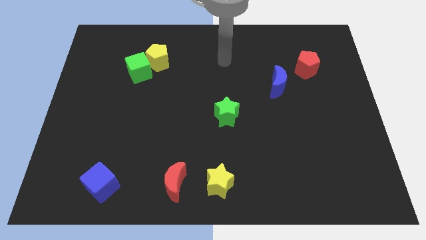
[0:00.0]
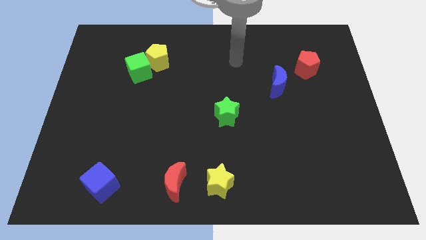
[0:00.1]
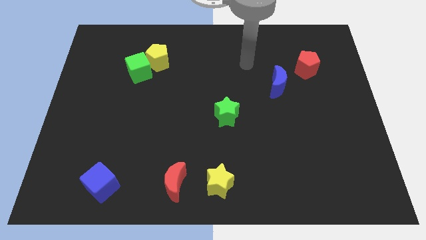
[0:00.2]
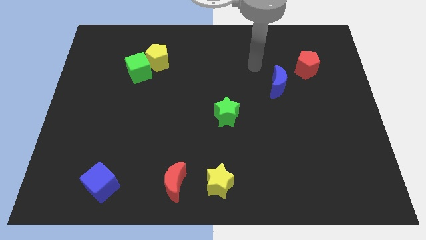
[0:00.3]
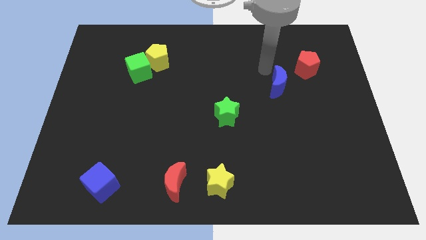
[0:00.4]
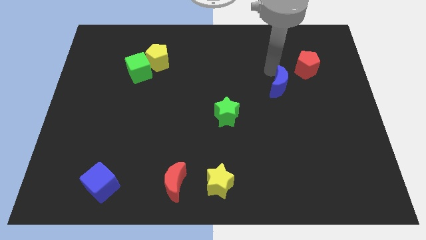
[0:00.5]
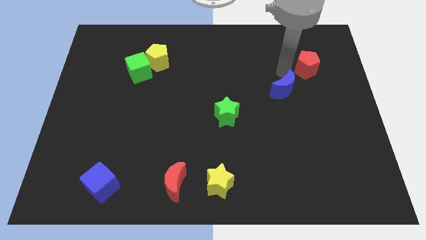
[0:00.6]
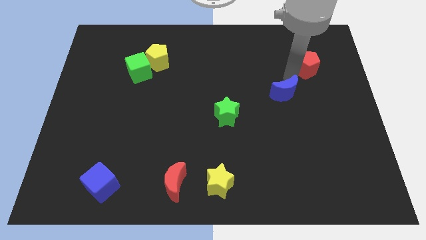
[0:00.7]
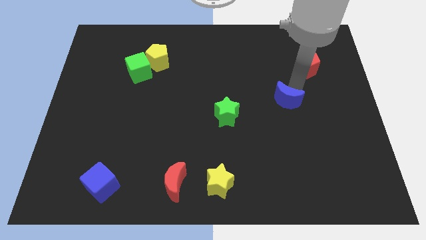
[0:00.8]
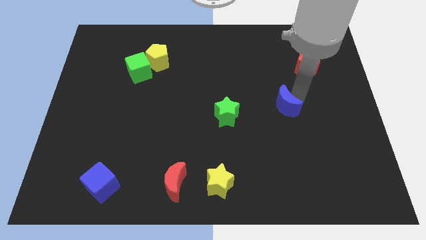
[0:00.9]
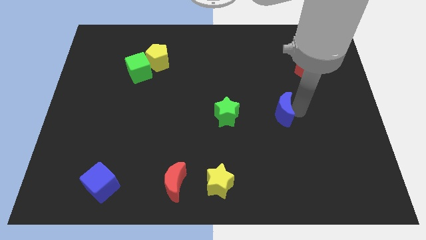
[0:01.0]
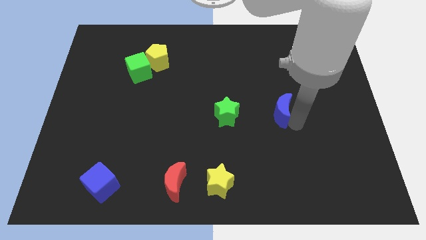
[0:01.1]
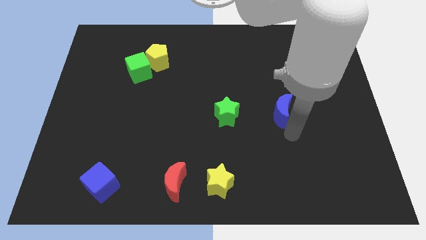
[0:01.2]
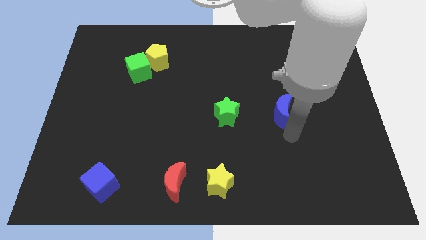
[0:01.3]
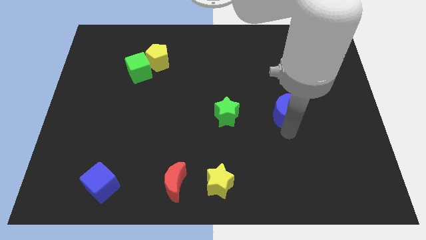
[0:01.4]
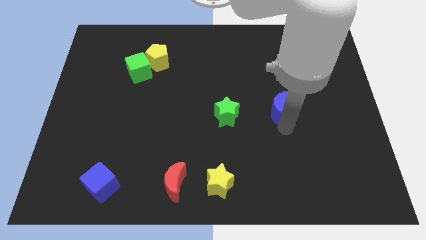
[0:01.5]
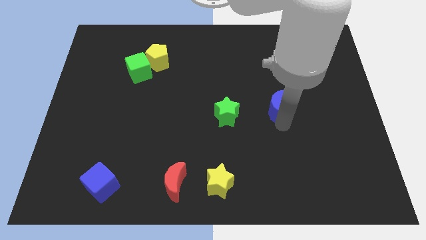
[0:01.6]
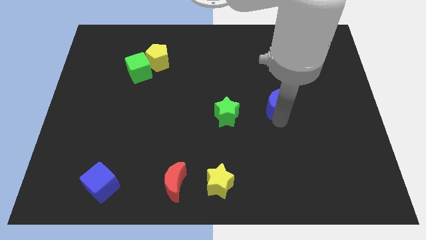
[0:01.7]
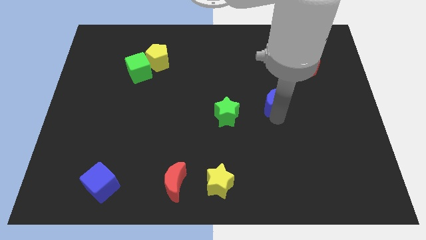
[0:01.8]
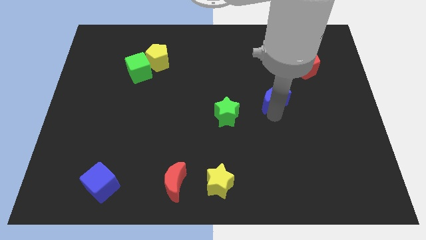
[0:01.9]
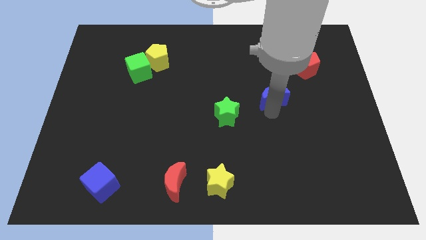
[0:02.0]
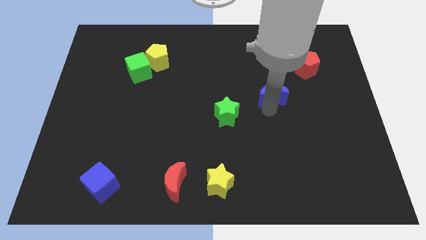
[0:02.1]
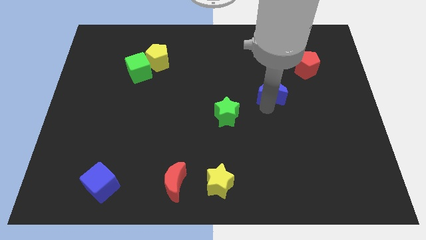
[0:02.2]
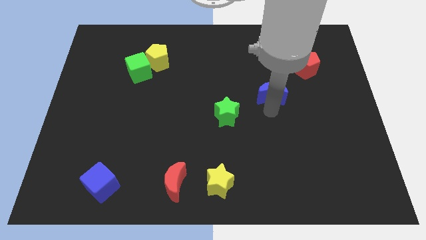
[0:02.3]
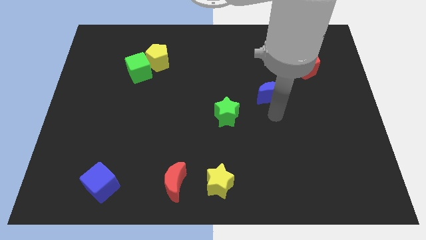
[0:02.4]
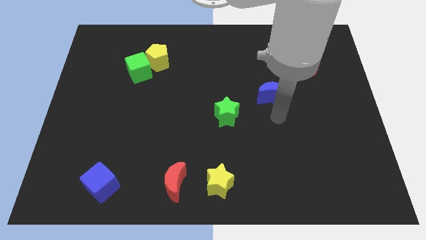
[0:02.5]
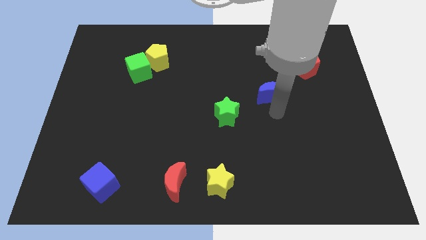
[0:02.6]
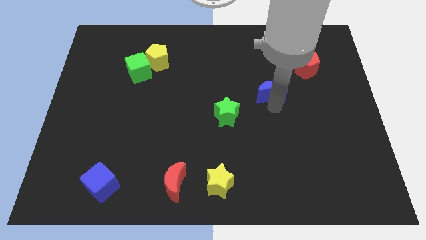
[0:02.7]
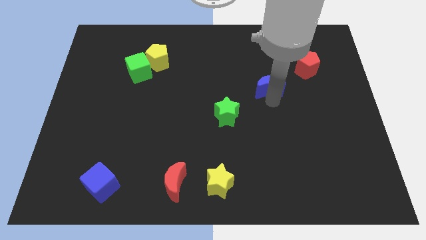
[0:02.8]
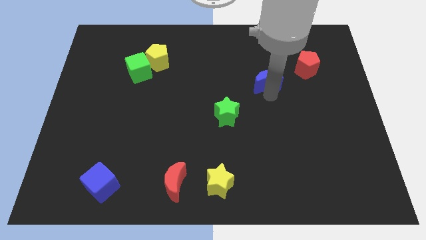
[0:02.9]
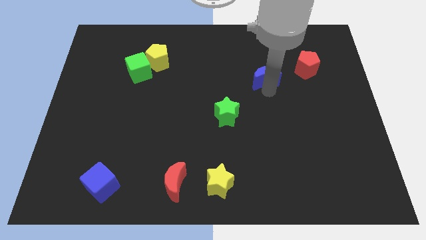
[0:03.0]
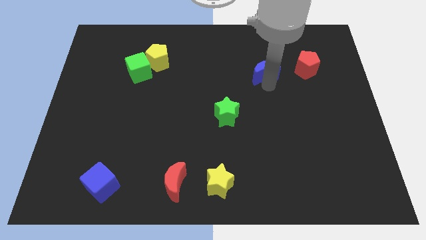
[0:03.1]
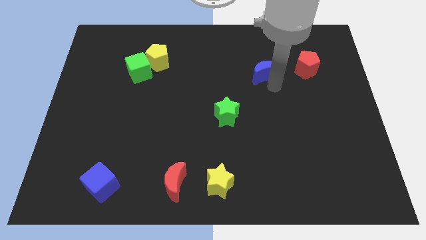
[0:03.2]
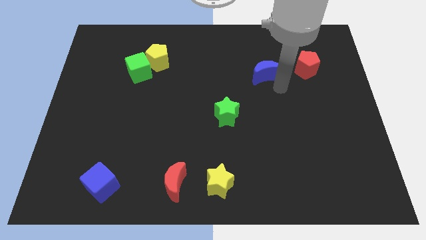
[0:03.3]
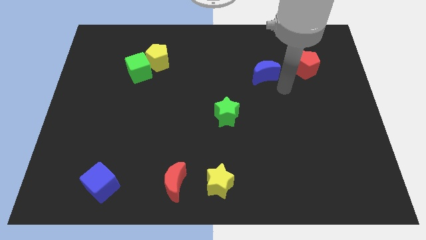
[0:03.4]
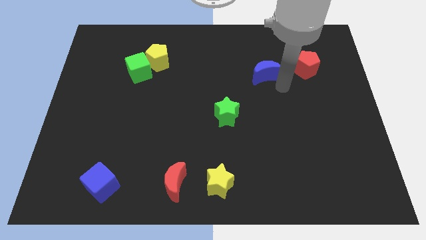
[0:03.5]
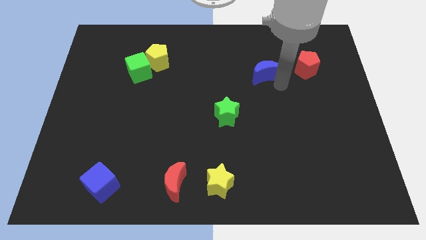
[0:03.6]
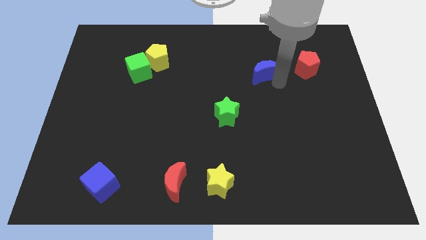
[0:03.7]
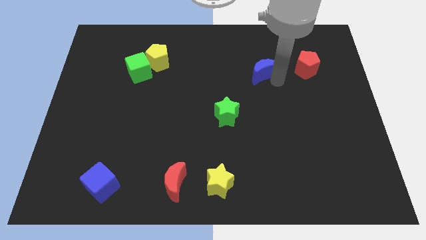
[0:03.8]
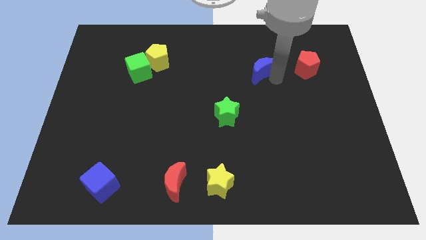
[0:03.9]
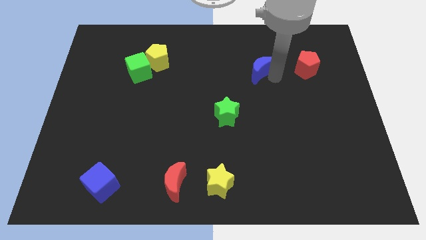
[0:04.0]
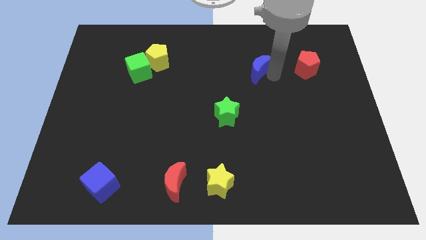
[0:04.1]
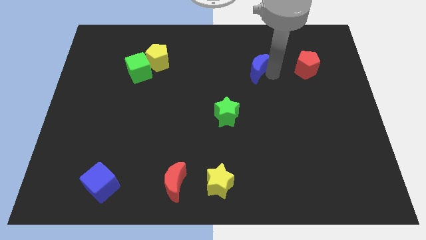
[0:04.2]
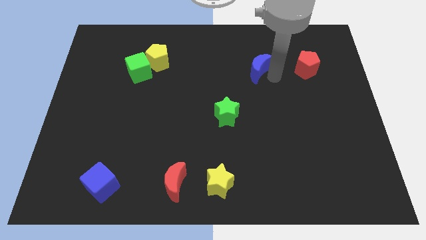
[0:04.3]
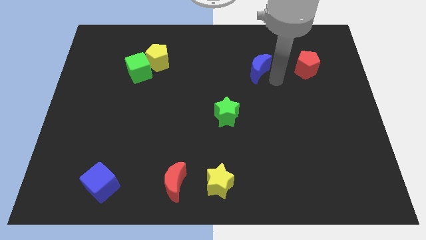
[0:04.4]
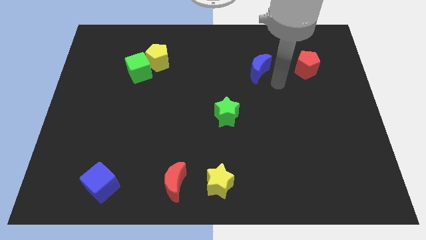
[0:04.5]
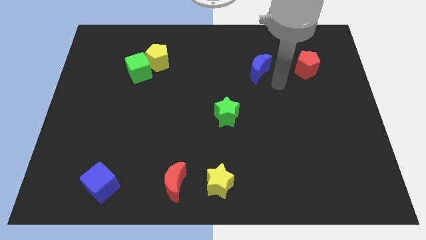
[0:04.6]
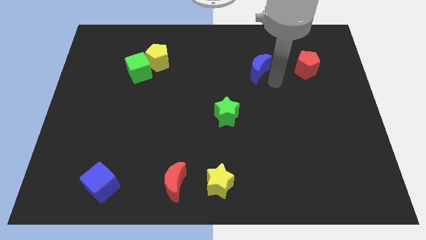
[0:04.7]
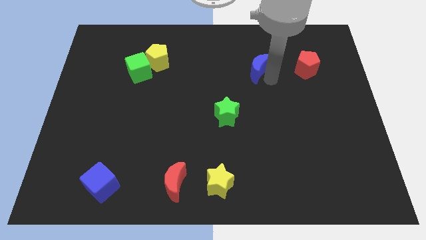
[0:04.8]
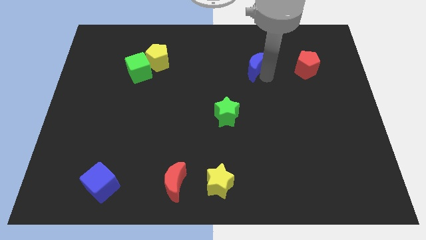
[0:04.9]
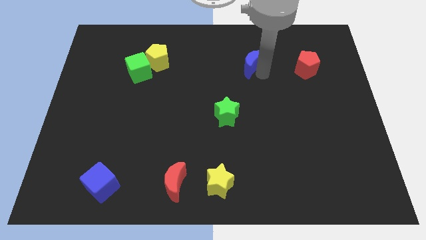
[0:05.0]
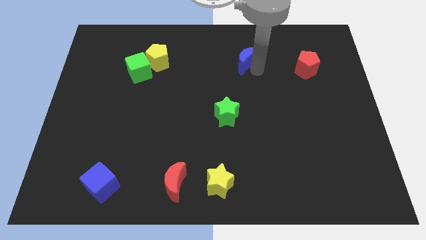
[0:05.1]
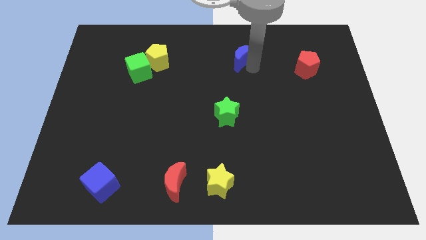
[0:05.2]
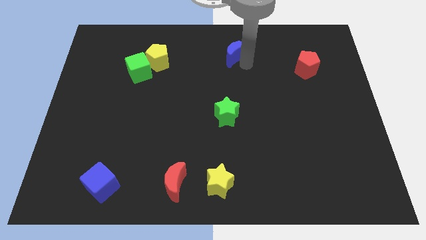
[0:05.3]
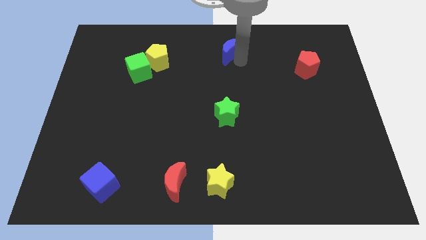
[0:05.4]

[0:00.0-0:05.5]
put the blue moon to the top

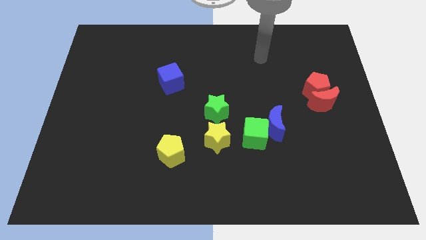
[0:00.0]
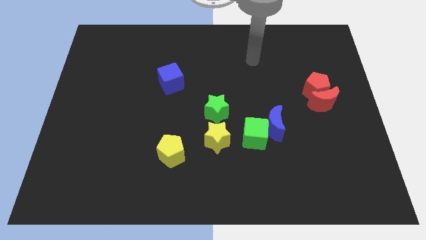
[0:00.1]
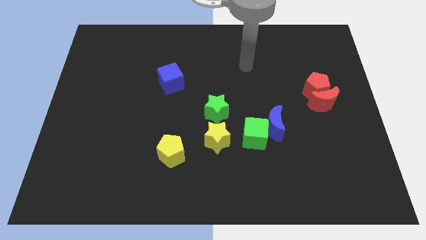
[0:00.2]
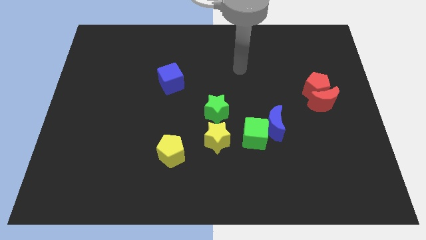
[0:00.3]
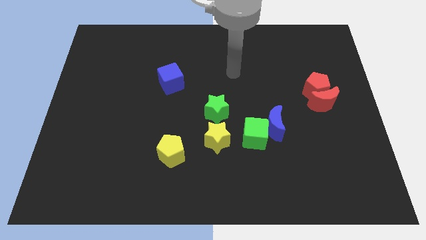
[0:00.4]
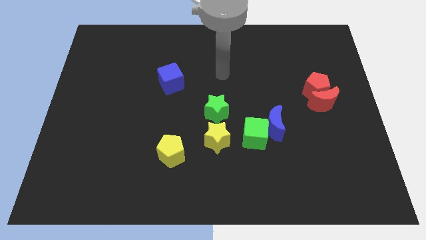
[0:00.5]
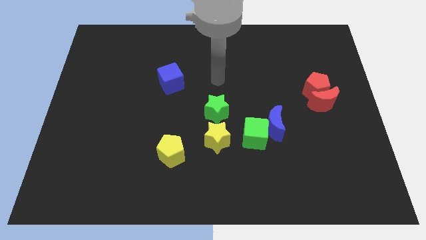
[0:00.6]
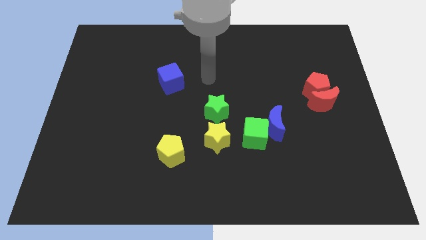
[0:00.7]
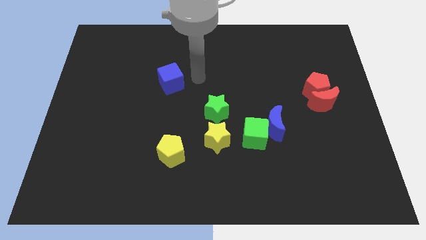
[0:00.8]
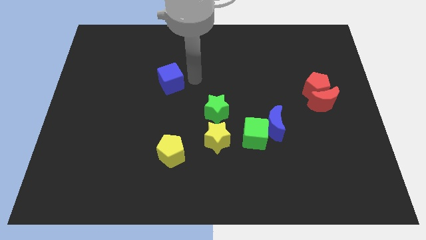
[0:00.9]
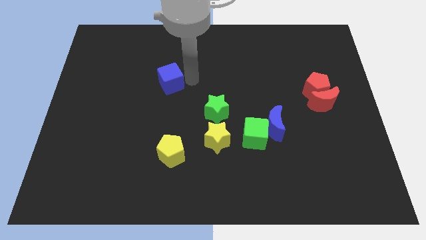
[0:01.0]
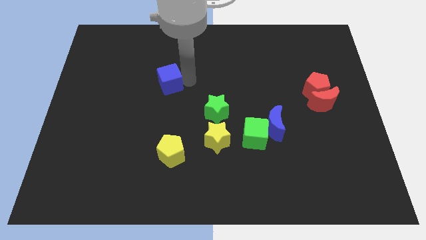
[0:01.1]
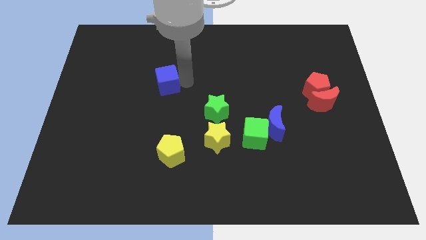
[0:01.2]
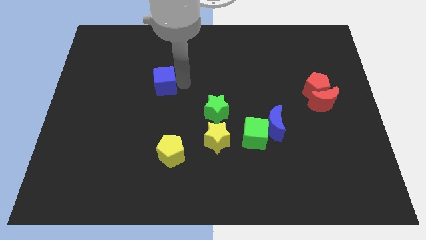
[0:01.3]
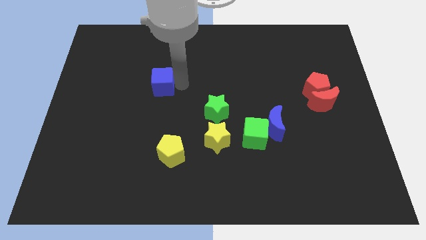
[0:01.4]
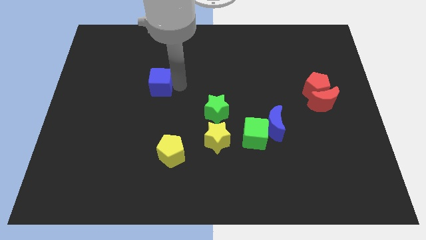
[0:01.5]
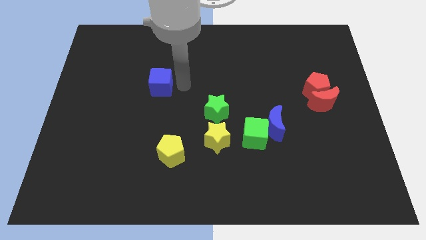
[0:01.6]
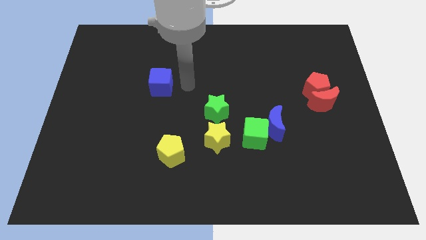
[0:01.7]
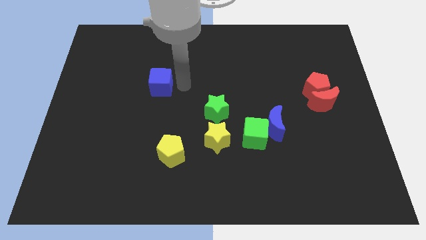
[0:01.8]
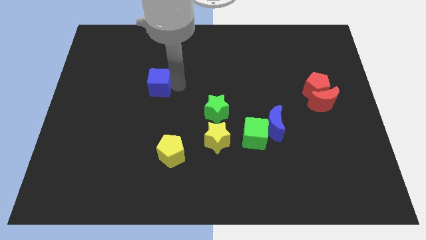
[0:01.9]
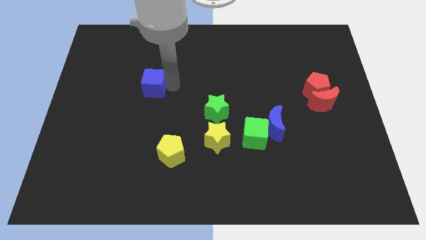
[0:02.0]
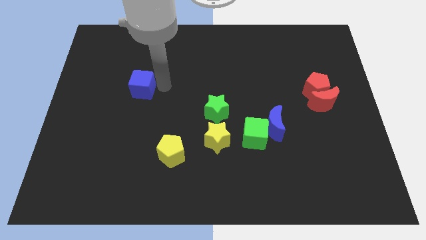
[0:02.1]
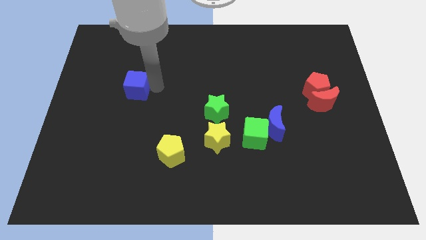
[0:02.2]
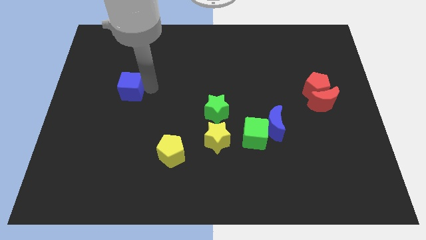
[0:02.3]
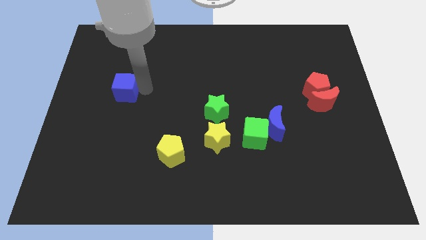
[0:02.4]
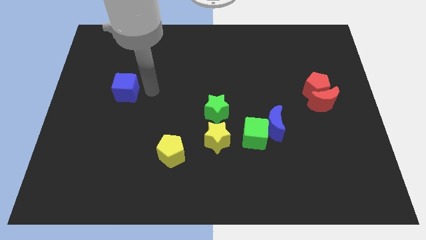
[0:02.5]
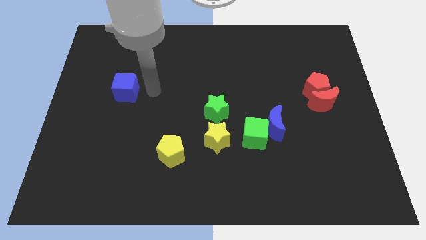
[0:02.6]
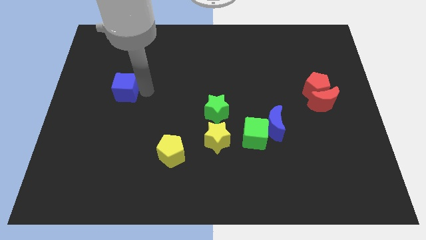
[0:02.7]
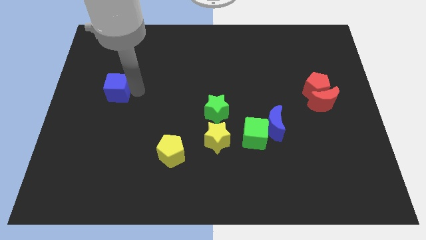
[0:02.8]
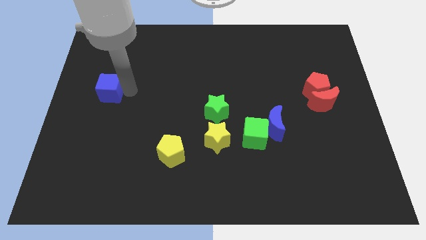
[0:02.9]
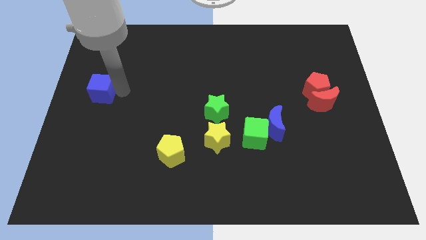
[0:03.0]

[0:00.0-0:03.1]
slide the blue cube to the center left
